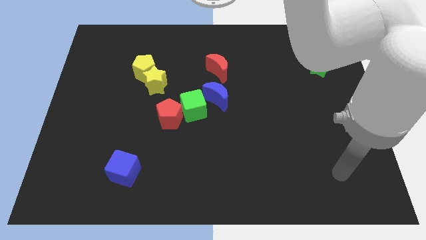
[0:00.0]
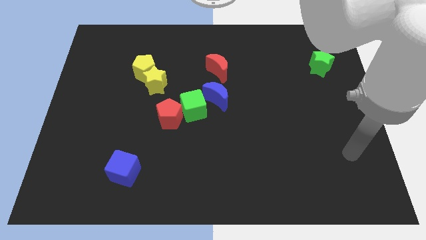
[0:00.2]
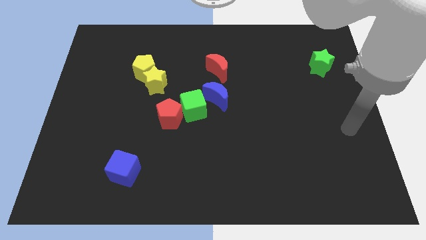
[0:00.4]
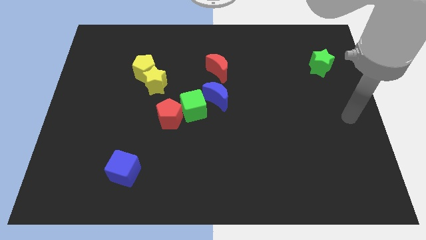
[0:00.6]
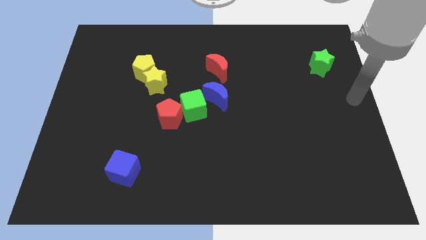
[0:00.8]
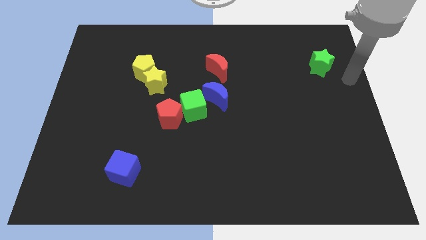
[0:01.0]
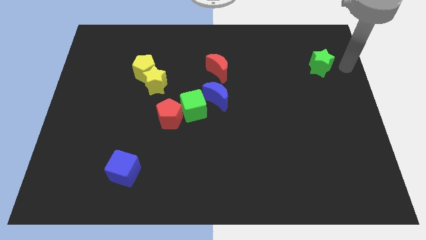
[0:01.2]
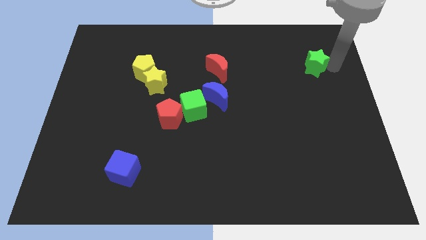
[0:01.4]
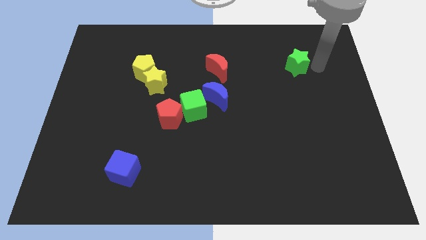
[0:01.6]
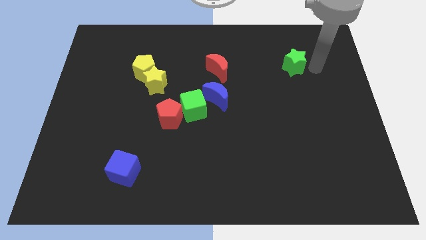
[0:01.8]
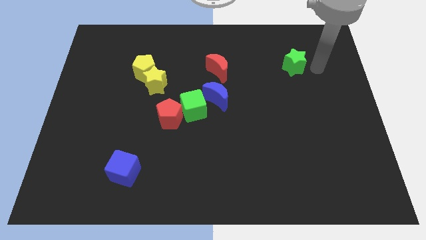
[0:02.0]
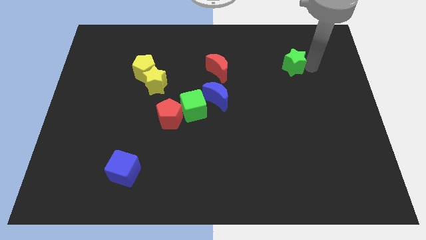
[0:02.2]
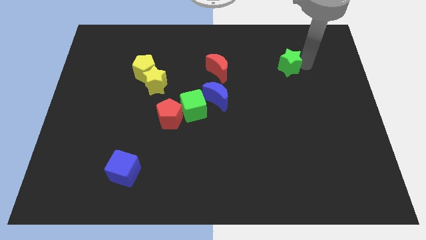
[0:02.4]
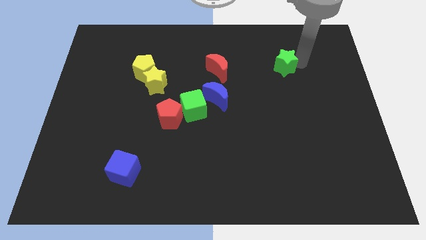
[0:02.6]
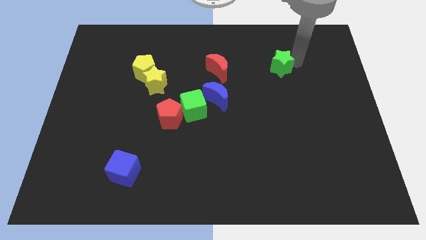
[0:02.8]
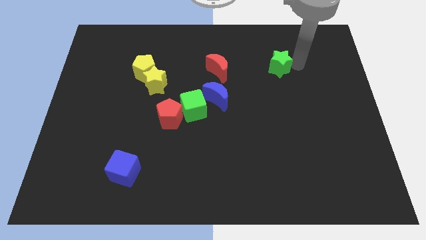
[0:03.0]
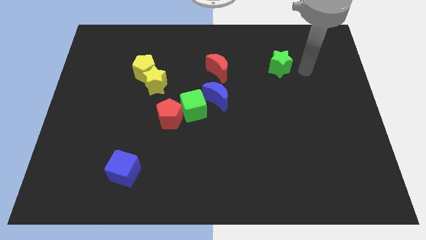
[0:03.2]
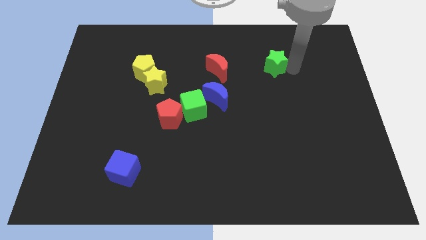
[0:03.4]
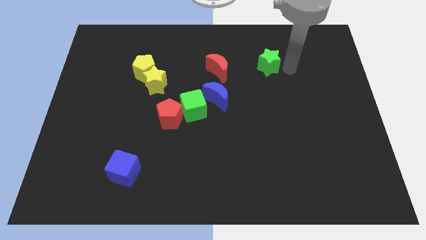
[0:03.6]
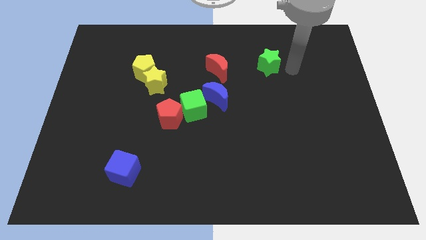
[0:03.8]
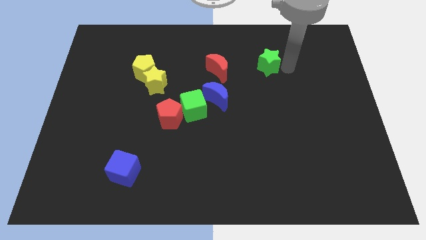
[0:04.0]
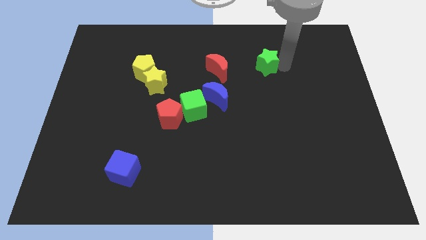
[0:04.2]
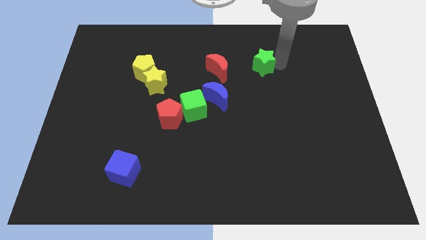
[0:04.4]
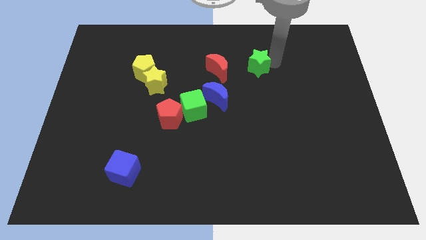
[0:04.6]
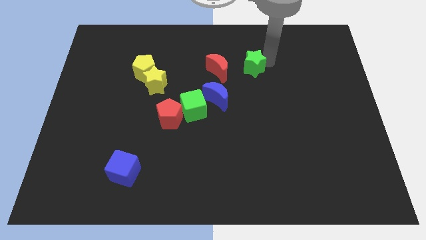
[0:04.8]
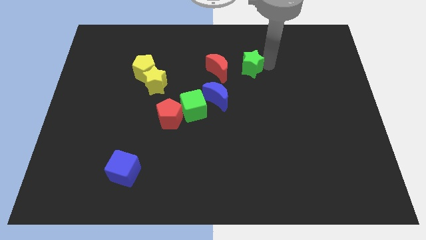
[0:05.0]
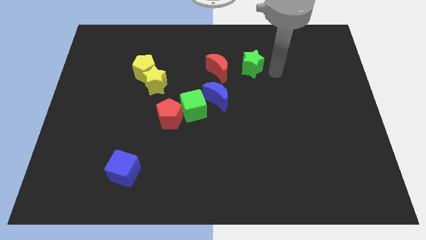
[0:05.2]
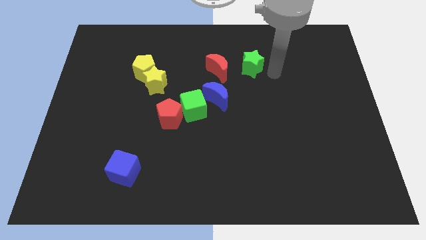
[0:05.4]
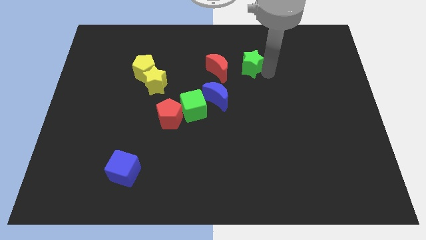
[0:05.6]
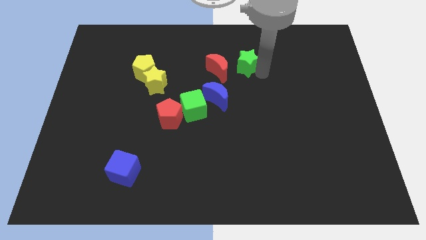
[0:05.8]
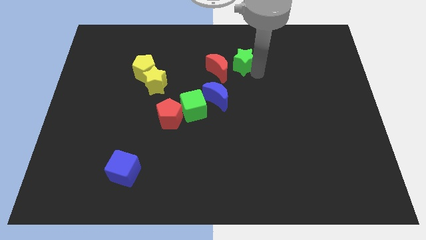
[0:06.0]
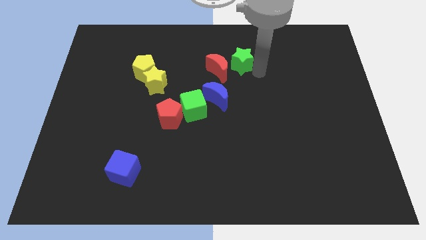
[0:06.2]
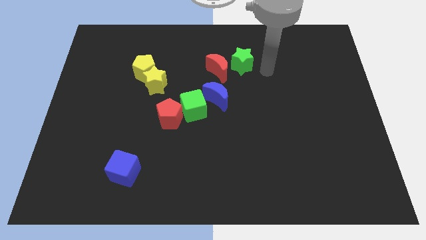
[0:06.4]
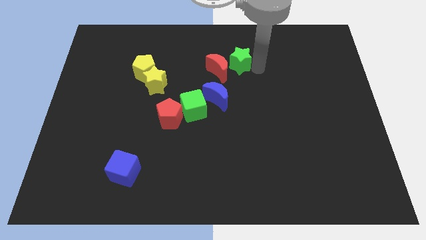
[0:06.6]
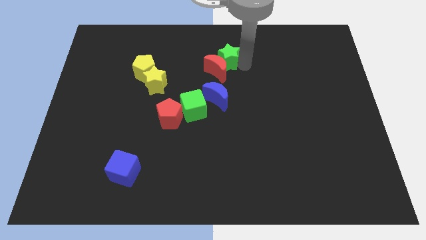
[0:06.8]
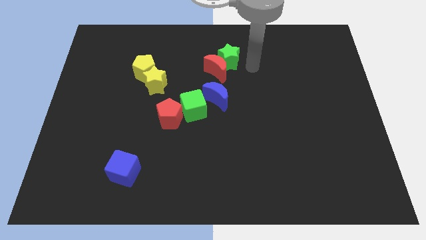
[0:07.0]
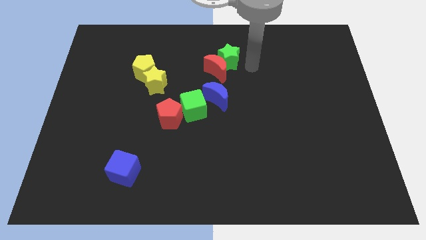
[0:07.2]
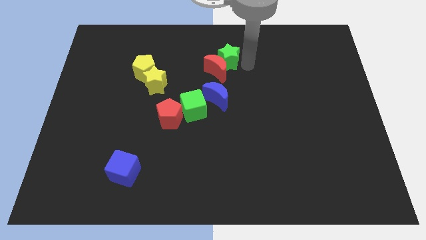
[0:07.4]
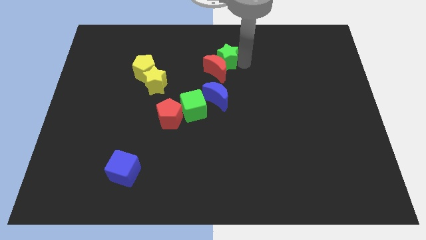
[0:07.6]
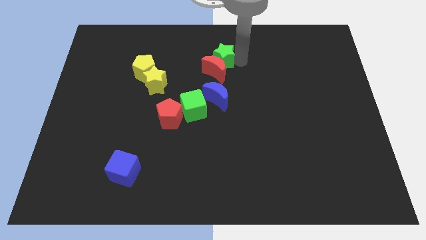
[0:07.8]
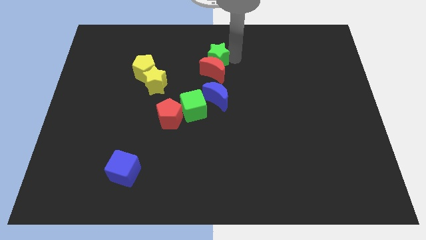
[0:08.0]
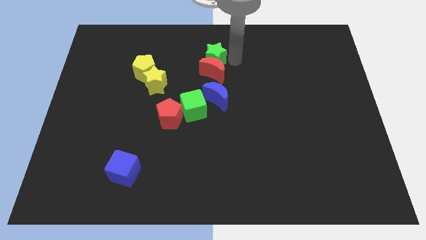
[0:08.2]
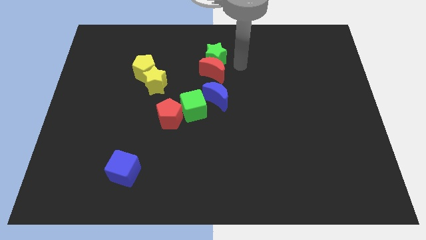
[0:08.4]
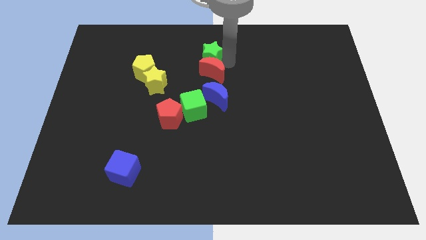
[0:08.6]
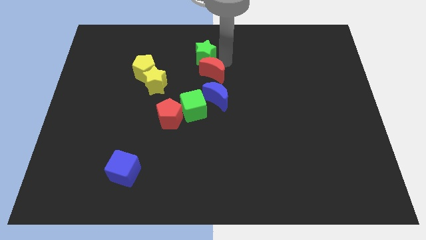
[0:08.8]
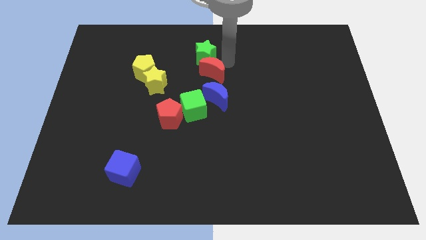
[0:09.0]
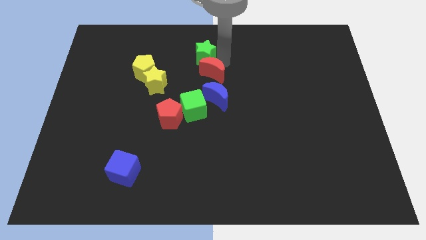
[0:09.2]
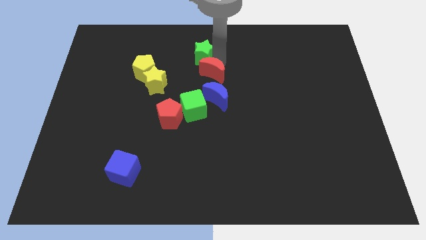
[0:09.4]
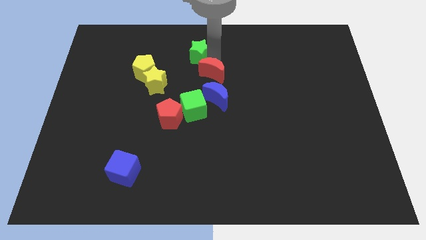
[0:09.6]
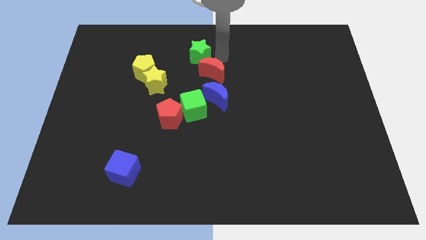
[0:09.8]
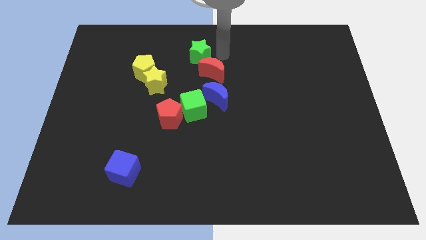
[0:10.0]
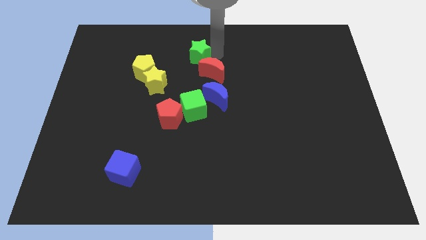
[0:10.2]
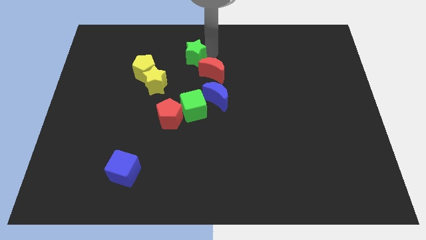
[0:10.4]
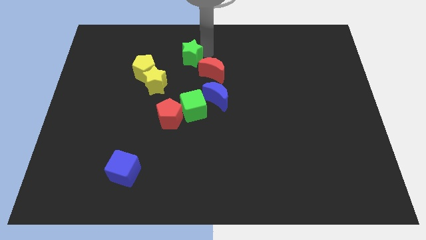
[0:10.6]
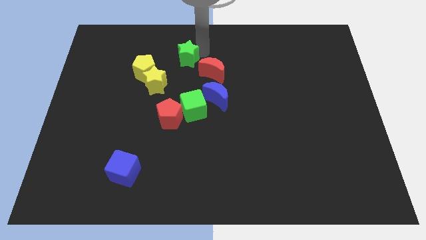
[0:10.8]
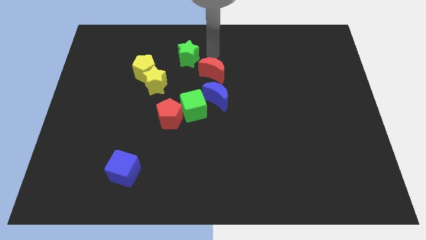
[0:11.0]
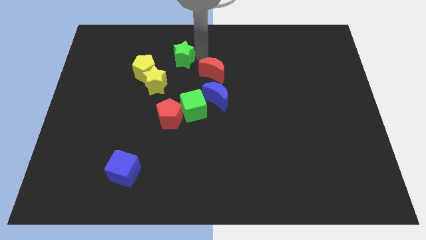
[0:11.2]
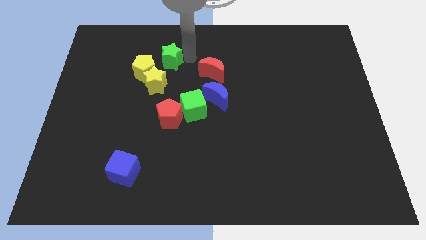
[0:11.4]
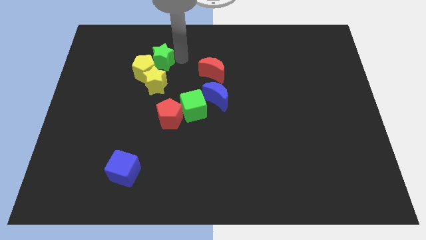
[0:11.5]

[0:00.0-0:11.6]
slide the green star next to the yellow pentagon
